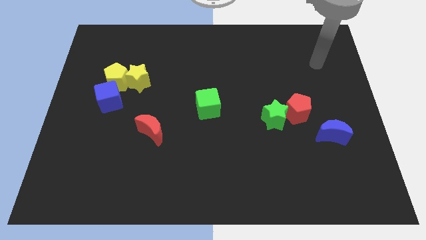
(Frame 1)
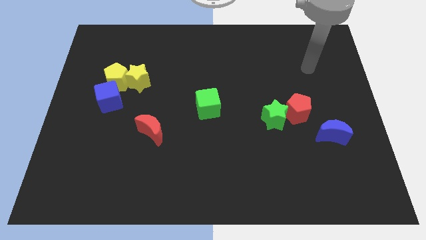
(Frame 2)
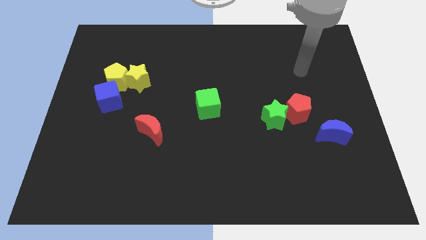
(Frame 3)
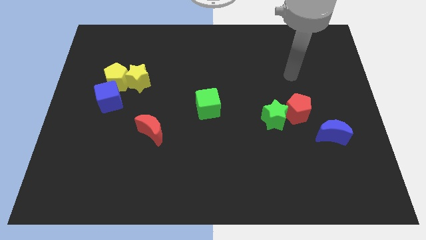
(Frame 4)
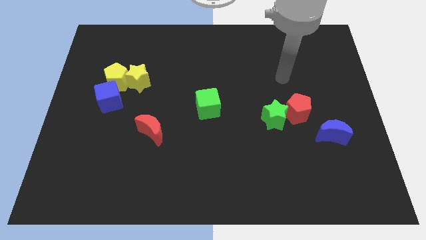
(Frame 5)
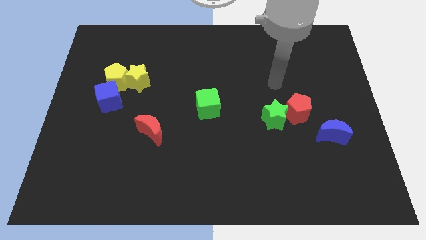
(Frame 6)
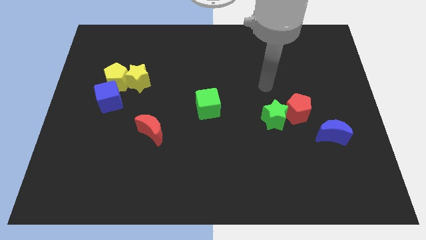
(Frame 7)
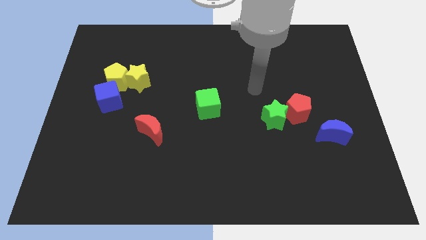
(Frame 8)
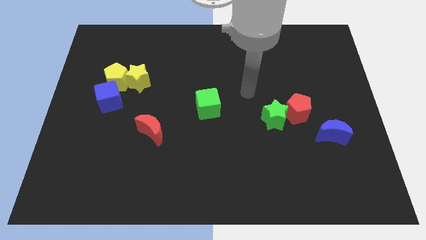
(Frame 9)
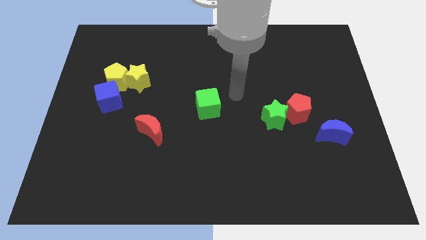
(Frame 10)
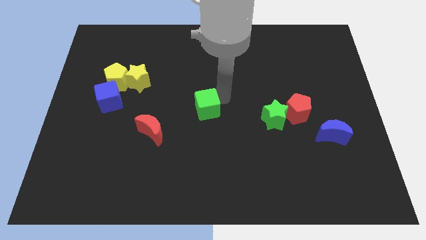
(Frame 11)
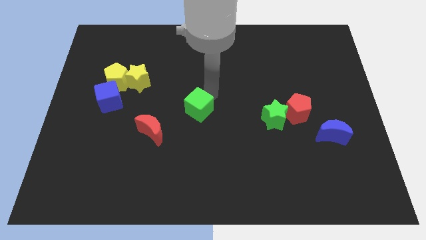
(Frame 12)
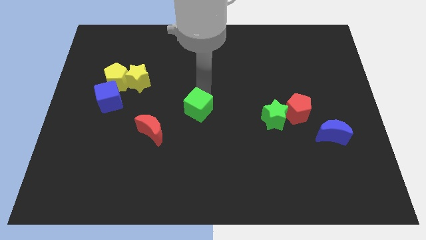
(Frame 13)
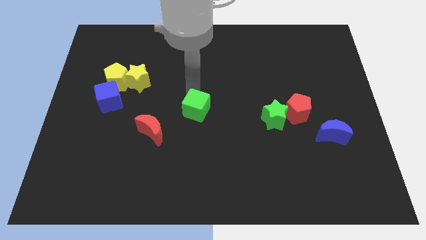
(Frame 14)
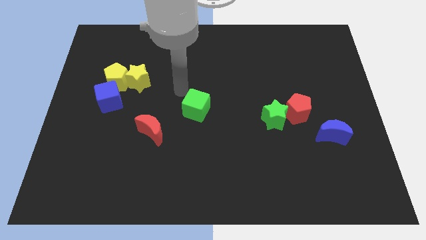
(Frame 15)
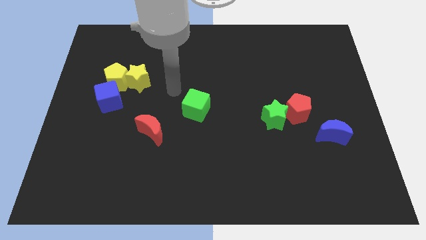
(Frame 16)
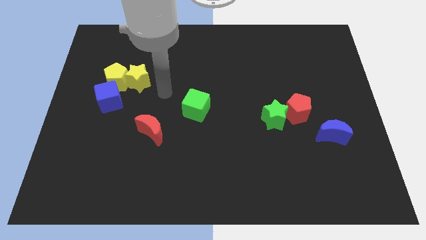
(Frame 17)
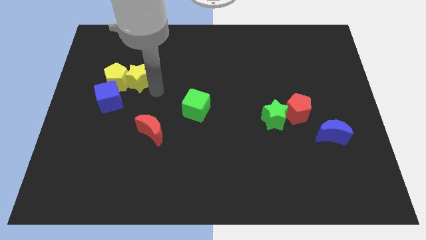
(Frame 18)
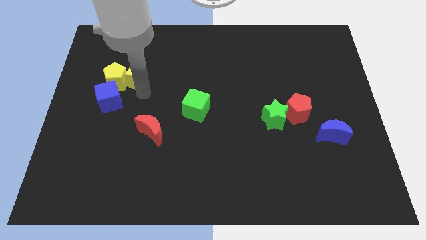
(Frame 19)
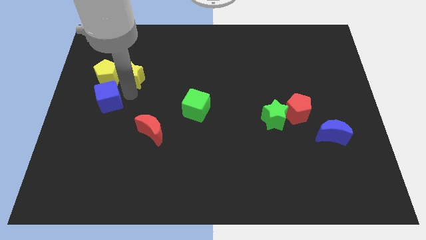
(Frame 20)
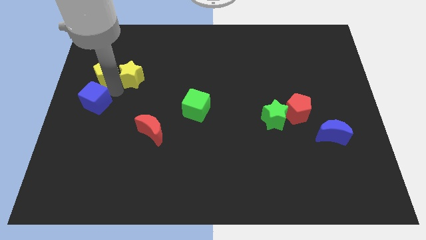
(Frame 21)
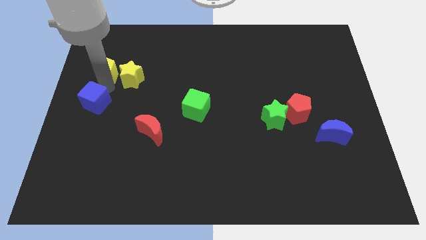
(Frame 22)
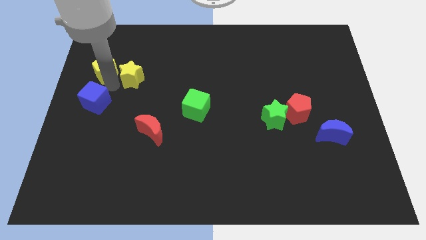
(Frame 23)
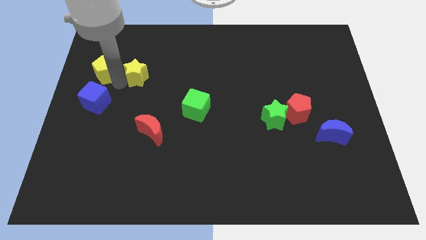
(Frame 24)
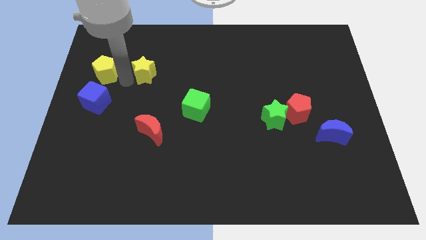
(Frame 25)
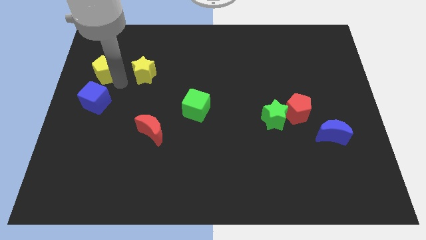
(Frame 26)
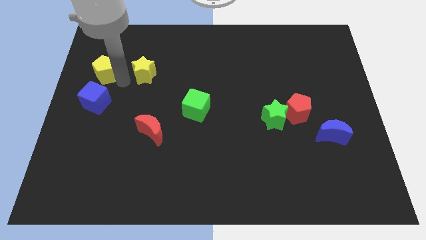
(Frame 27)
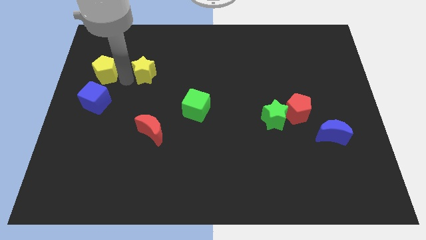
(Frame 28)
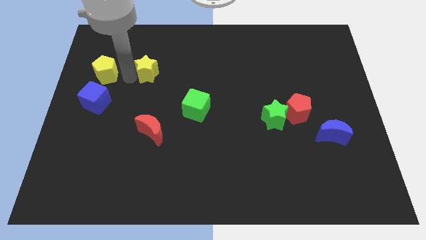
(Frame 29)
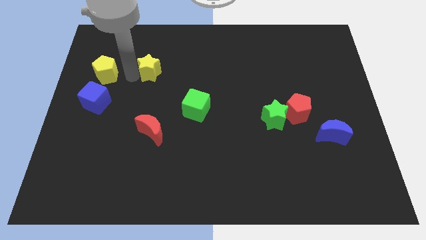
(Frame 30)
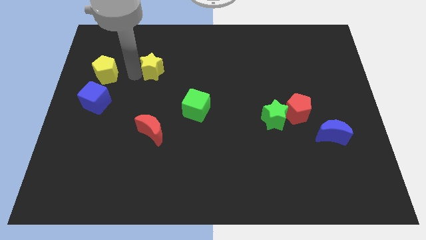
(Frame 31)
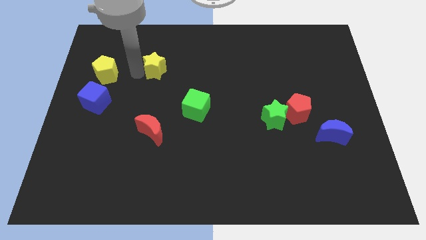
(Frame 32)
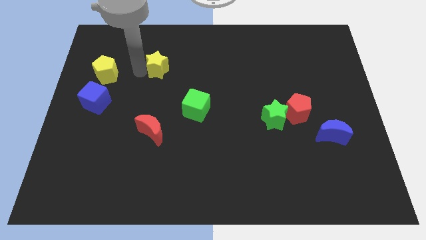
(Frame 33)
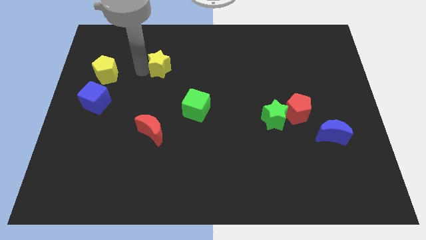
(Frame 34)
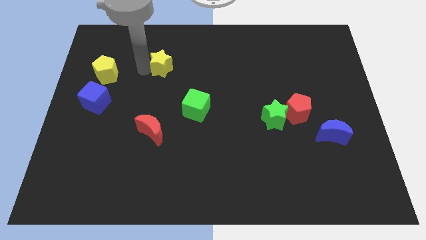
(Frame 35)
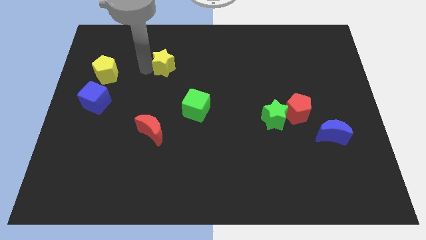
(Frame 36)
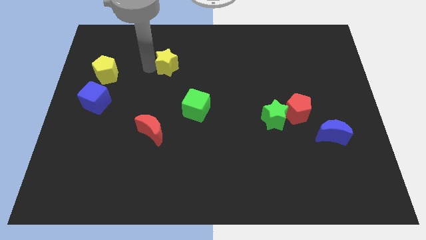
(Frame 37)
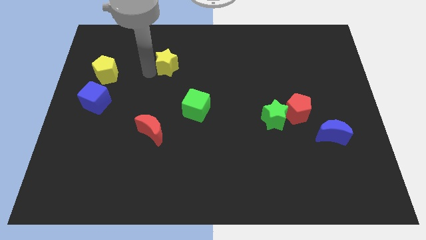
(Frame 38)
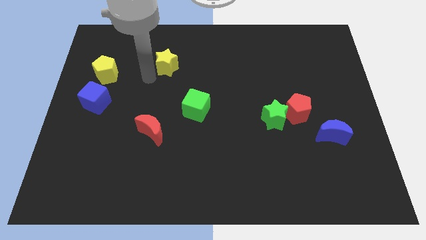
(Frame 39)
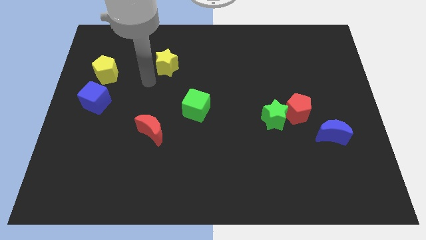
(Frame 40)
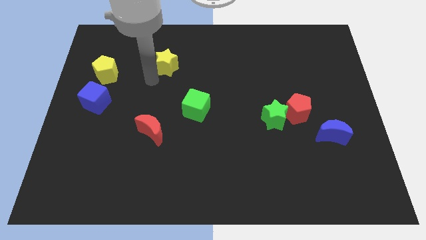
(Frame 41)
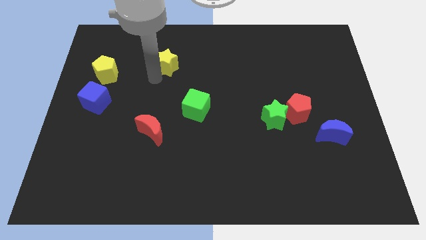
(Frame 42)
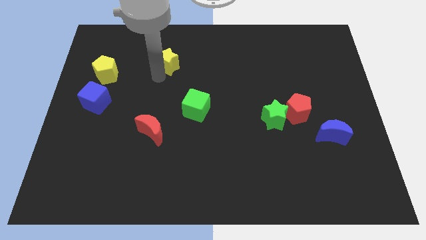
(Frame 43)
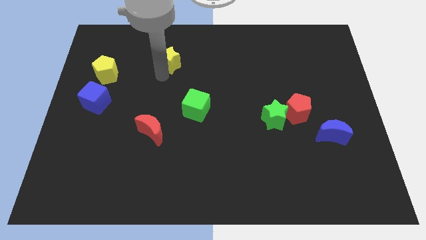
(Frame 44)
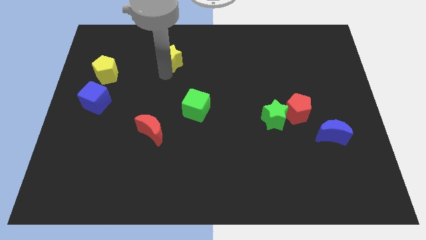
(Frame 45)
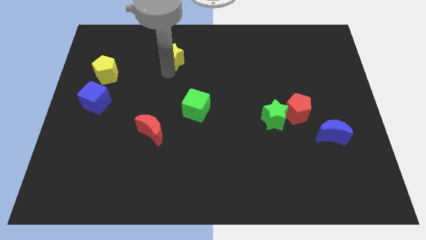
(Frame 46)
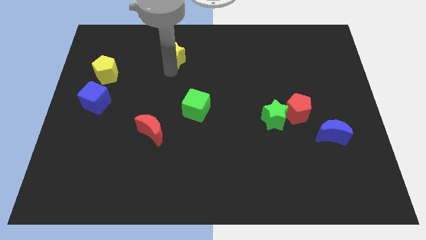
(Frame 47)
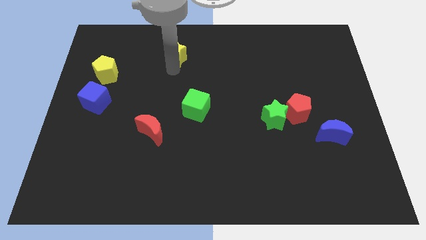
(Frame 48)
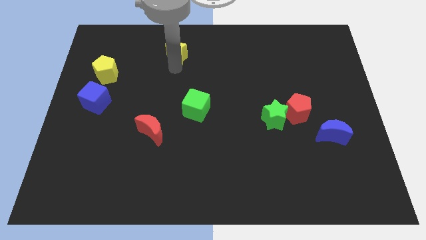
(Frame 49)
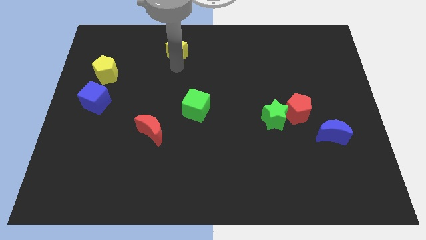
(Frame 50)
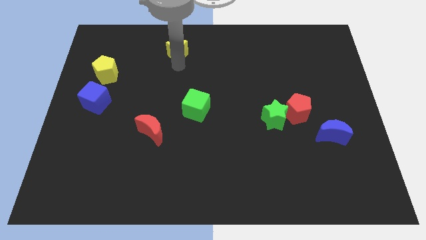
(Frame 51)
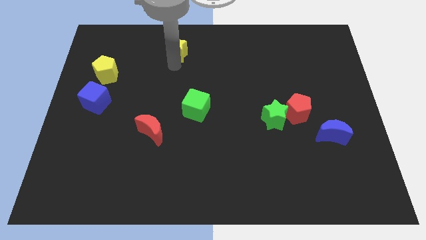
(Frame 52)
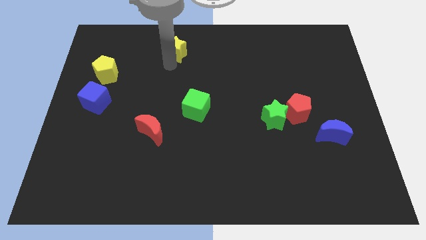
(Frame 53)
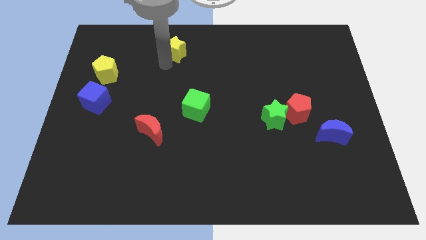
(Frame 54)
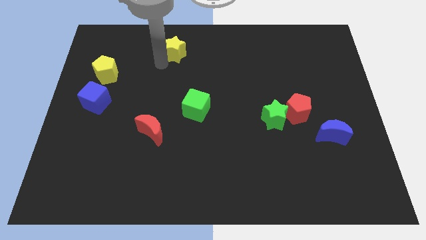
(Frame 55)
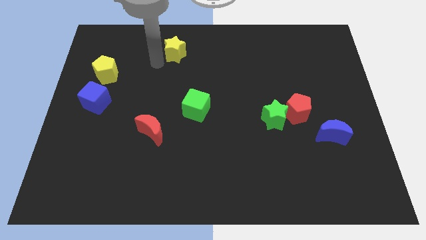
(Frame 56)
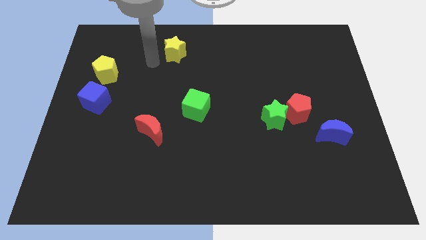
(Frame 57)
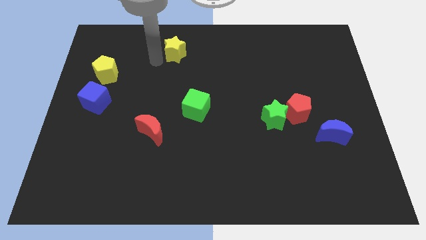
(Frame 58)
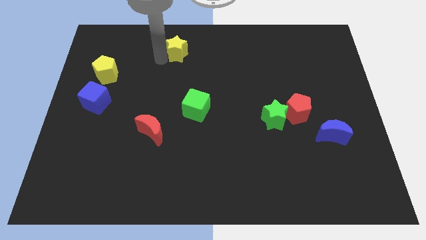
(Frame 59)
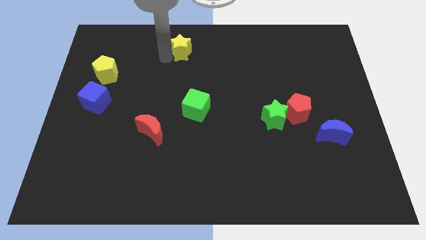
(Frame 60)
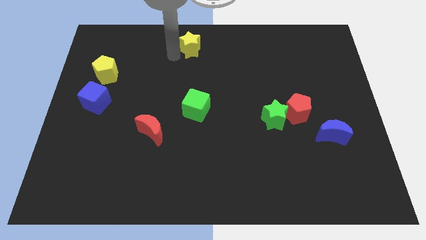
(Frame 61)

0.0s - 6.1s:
push the yellow star to the top side

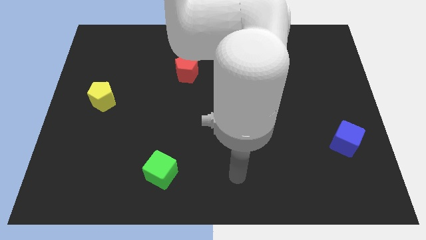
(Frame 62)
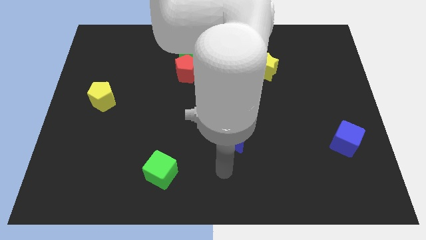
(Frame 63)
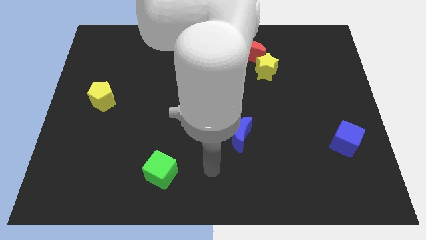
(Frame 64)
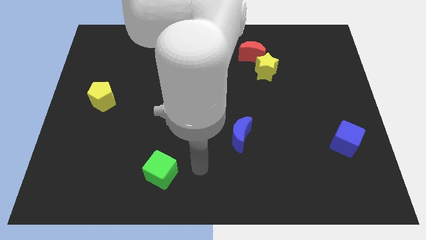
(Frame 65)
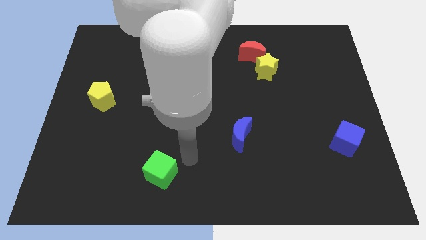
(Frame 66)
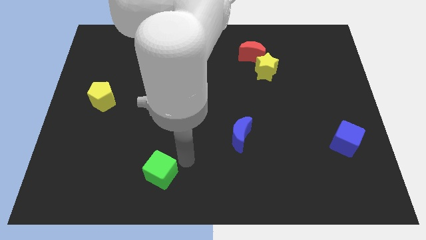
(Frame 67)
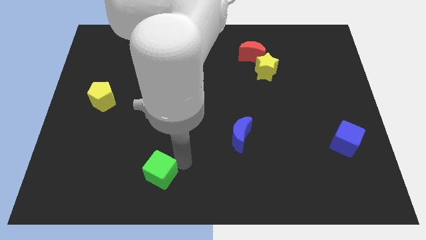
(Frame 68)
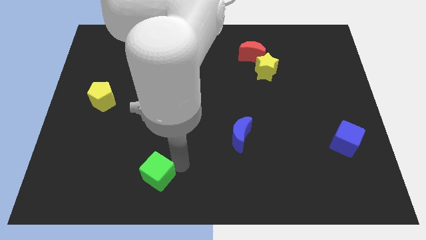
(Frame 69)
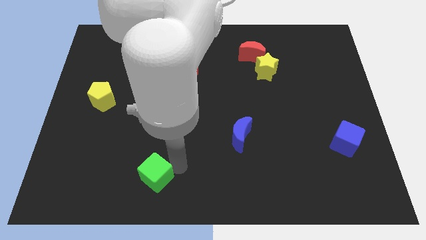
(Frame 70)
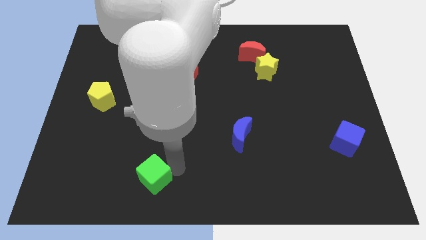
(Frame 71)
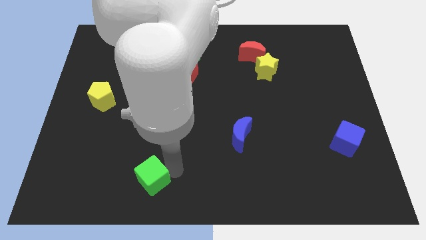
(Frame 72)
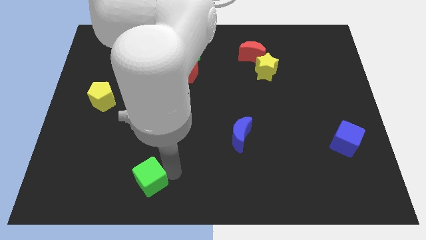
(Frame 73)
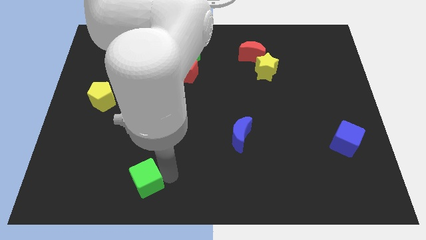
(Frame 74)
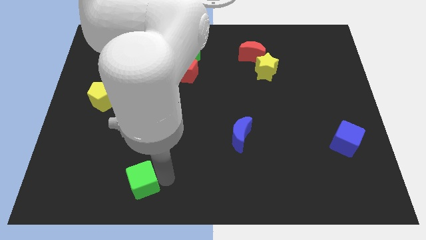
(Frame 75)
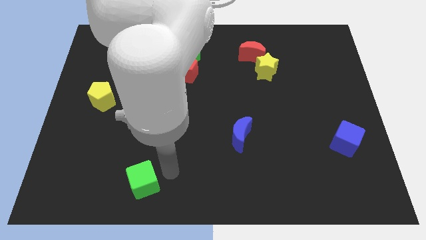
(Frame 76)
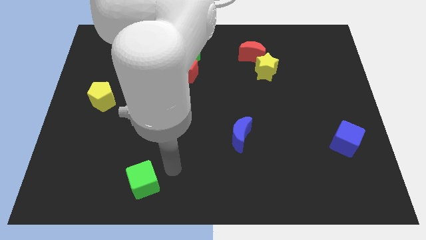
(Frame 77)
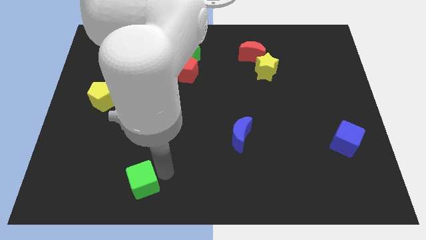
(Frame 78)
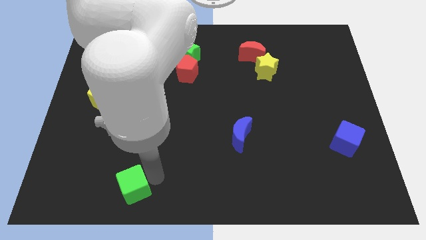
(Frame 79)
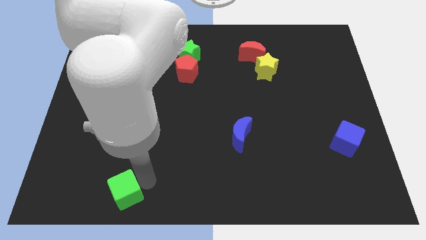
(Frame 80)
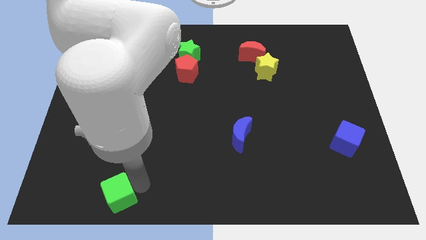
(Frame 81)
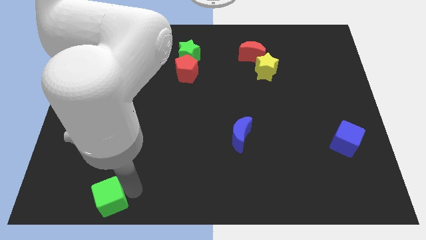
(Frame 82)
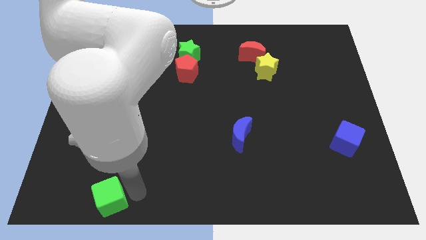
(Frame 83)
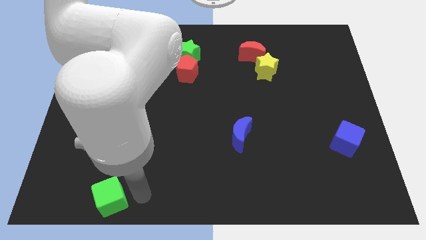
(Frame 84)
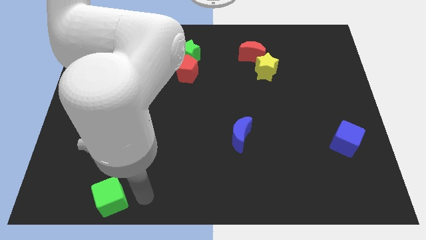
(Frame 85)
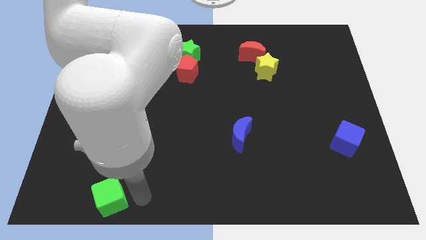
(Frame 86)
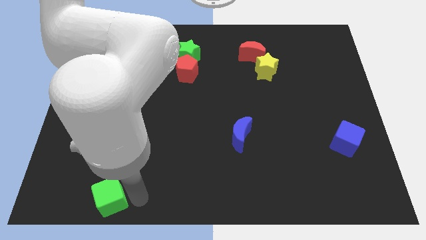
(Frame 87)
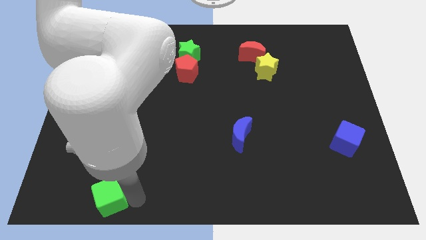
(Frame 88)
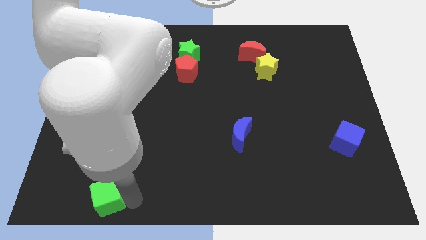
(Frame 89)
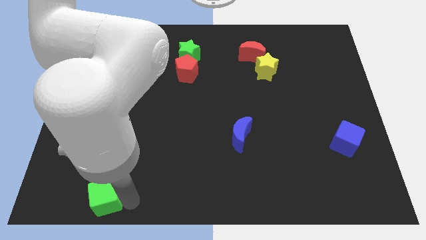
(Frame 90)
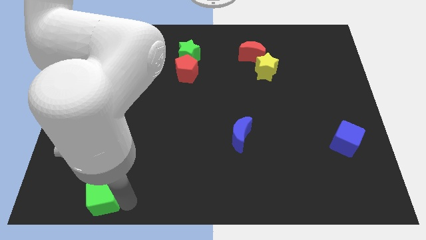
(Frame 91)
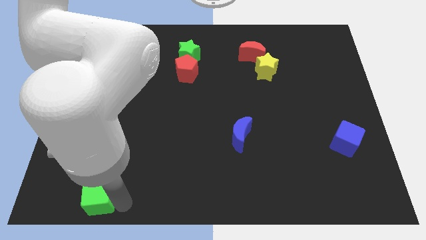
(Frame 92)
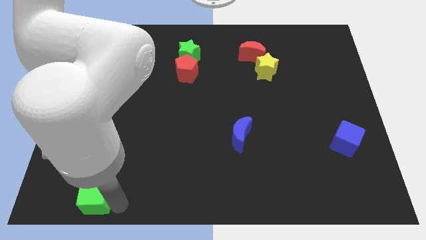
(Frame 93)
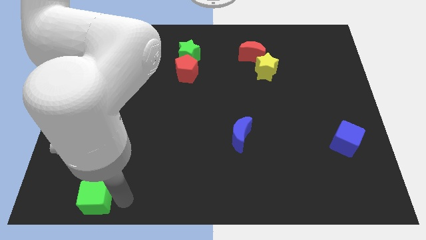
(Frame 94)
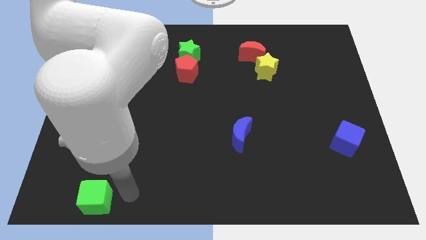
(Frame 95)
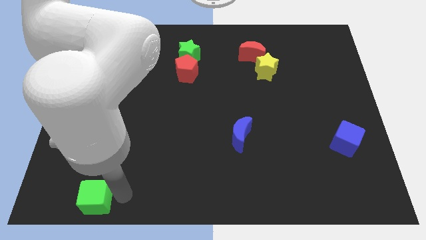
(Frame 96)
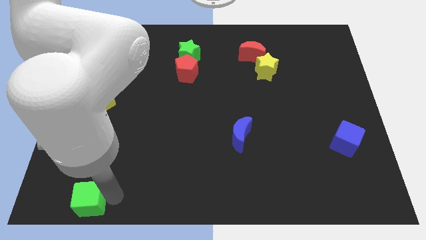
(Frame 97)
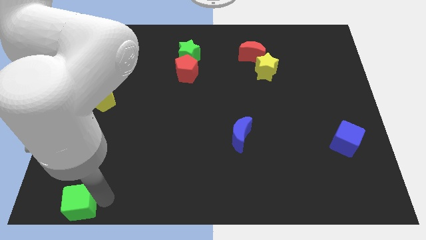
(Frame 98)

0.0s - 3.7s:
push the green cube to the bottom left
